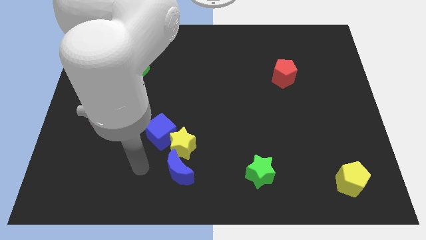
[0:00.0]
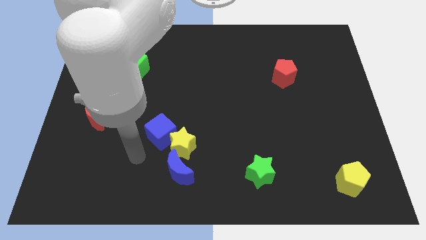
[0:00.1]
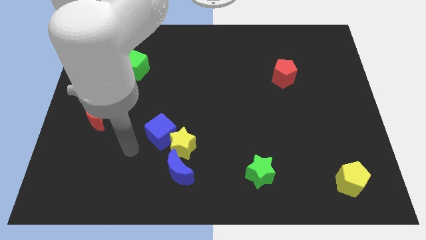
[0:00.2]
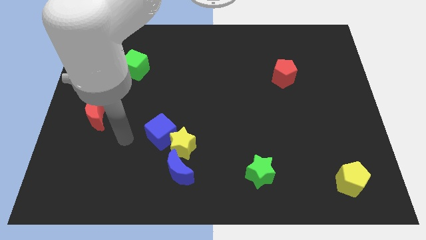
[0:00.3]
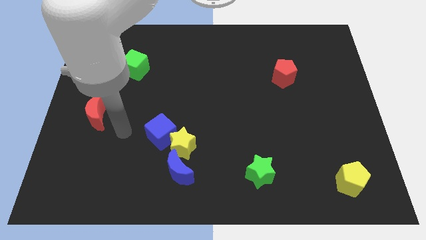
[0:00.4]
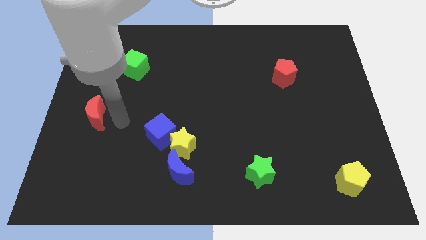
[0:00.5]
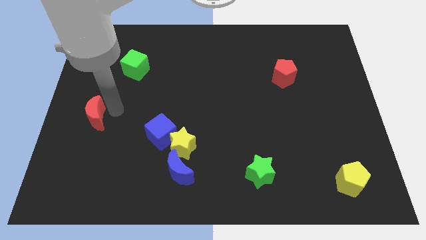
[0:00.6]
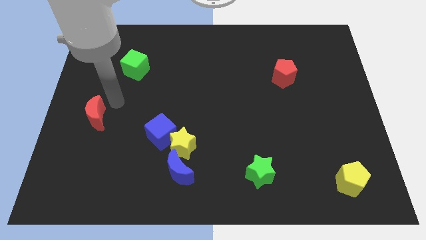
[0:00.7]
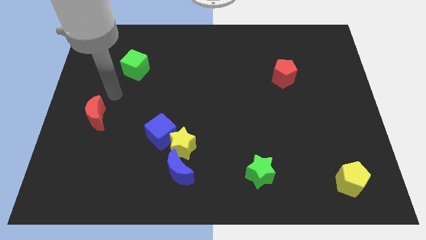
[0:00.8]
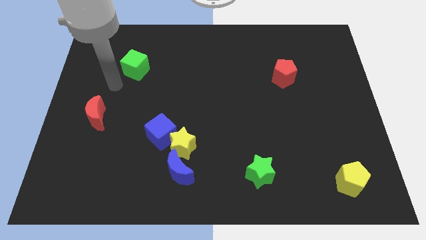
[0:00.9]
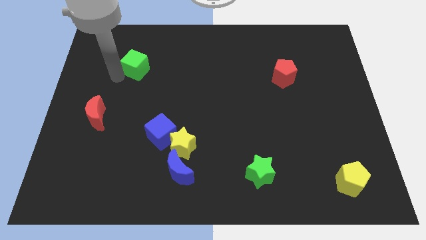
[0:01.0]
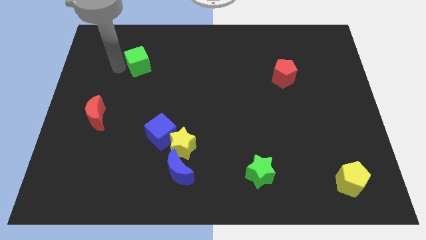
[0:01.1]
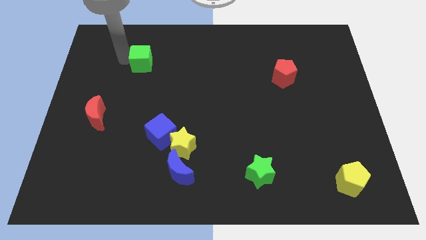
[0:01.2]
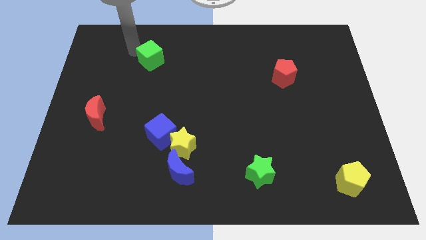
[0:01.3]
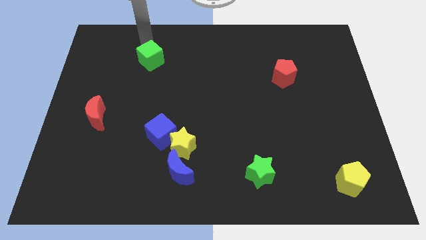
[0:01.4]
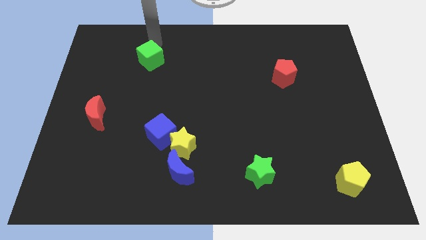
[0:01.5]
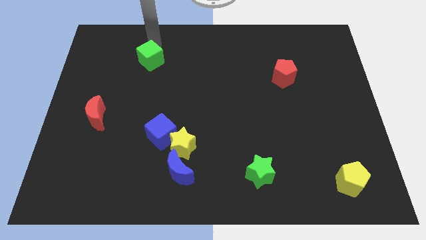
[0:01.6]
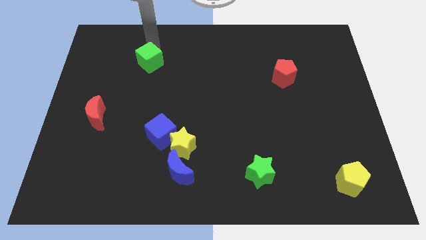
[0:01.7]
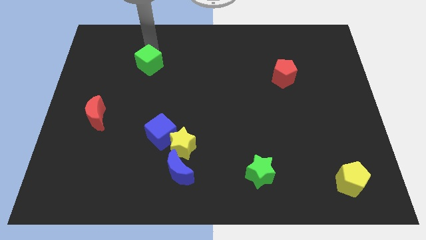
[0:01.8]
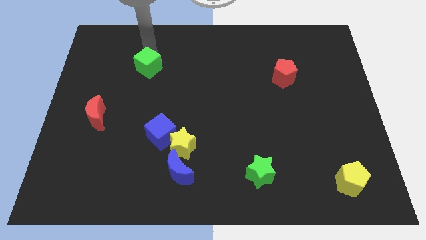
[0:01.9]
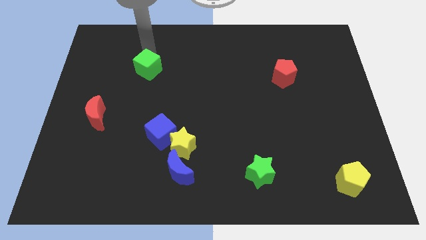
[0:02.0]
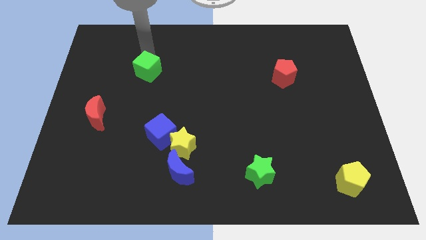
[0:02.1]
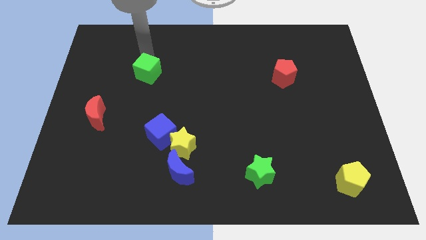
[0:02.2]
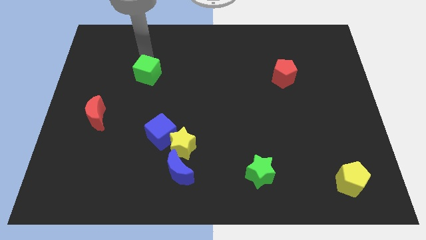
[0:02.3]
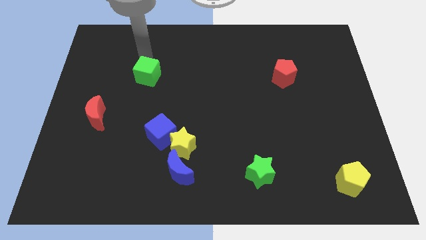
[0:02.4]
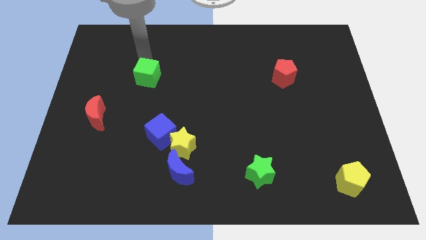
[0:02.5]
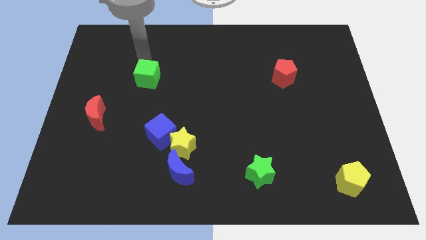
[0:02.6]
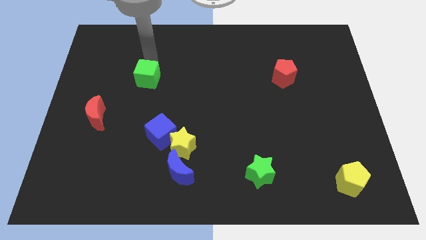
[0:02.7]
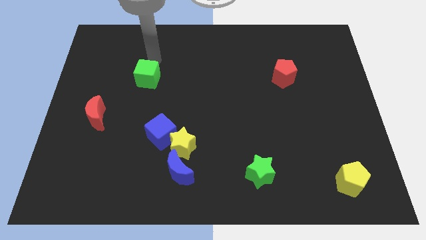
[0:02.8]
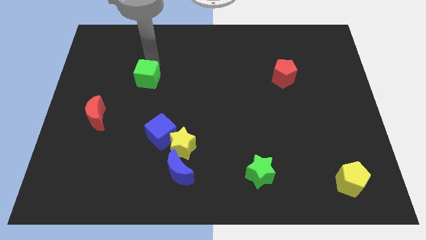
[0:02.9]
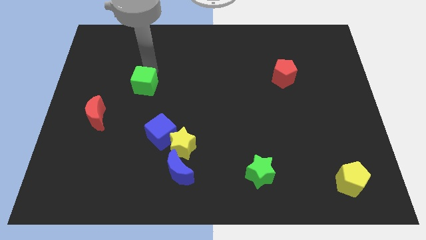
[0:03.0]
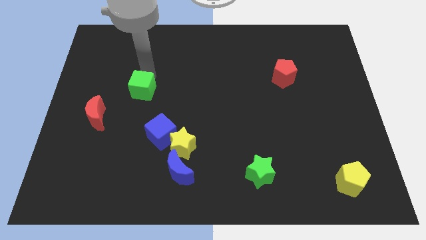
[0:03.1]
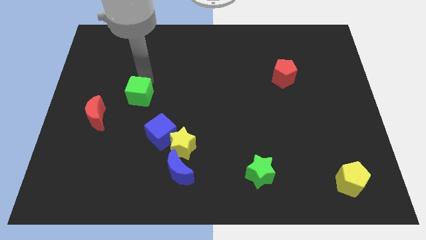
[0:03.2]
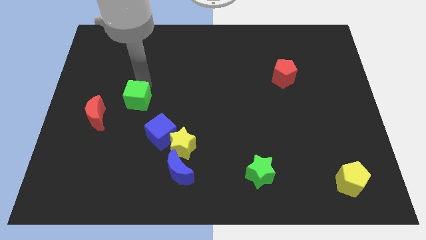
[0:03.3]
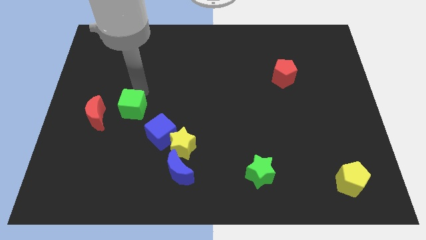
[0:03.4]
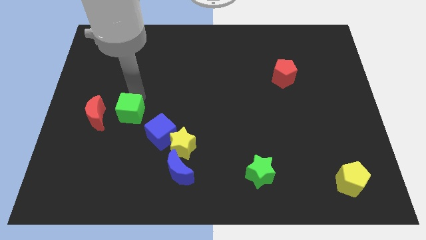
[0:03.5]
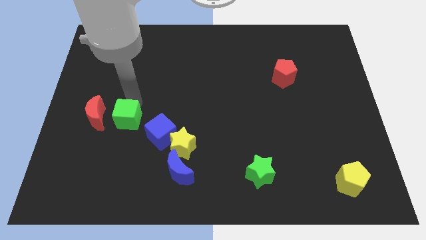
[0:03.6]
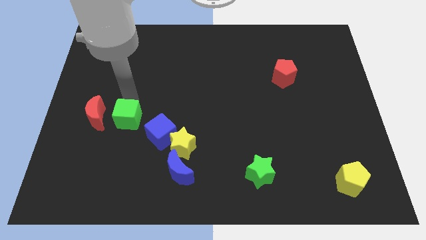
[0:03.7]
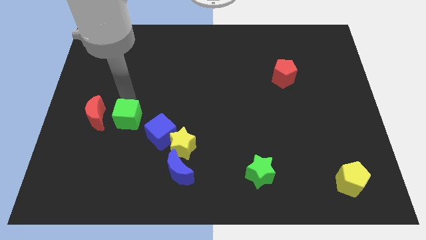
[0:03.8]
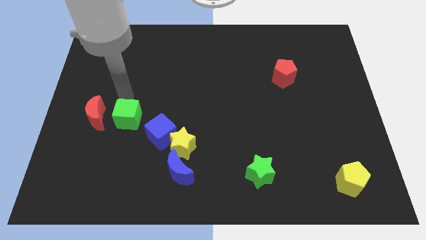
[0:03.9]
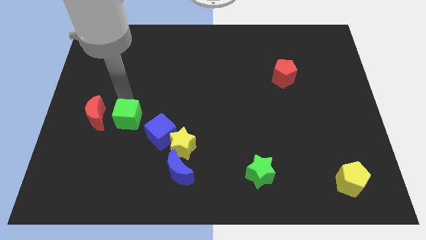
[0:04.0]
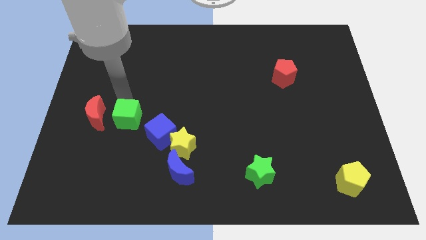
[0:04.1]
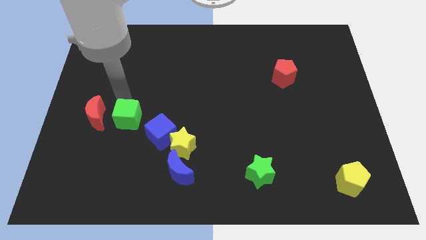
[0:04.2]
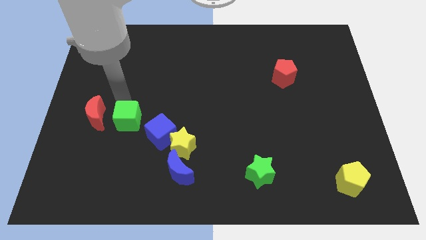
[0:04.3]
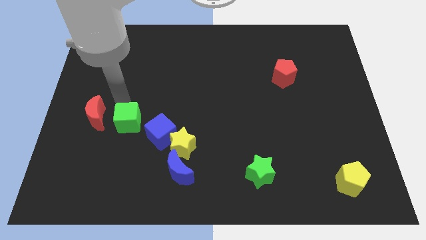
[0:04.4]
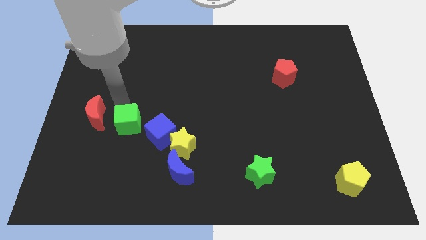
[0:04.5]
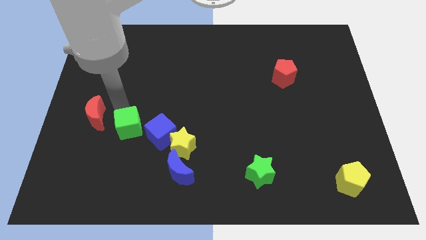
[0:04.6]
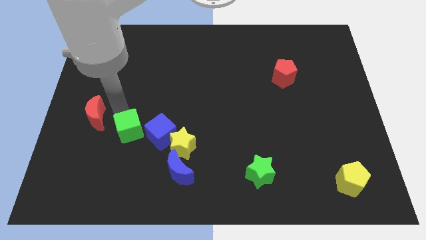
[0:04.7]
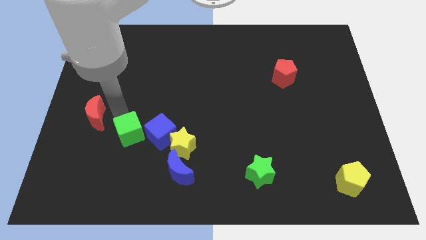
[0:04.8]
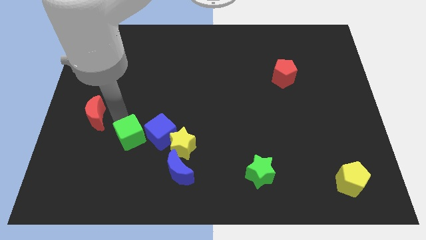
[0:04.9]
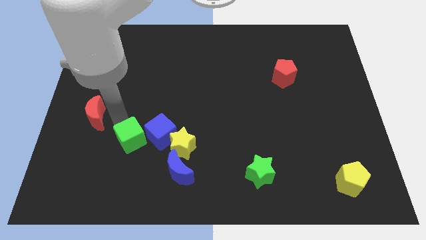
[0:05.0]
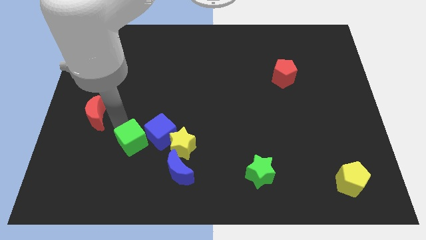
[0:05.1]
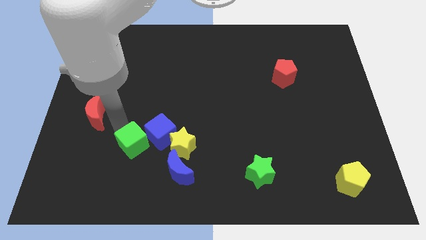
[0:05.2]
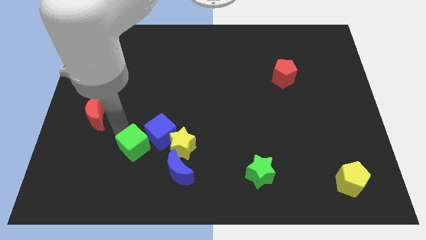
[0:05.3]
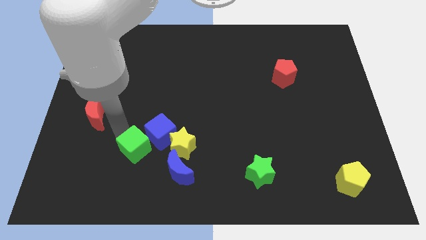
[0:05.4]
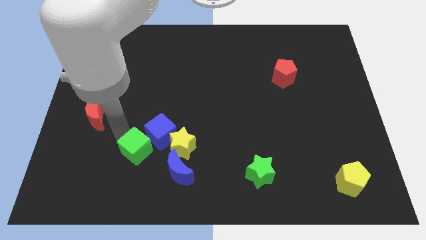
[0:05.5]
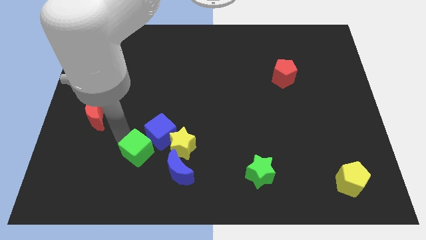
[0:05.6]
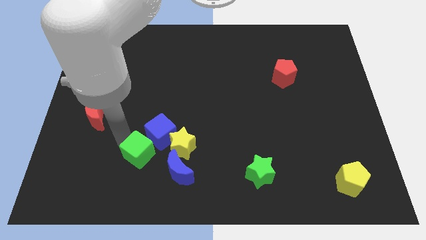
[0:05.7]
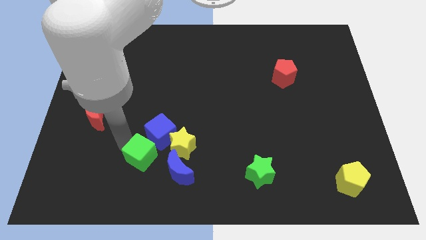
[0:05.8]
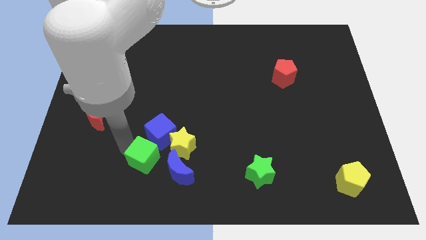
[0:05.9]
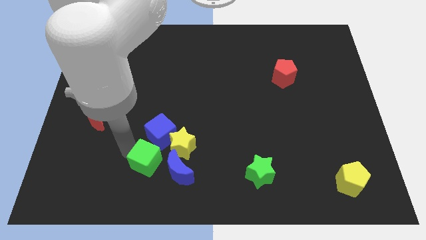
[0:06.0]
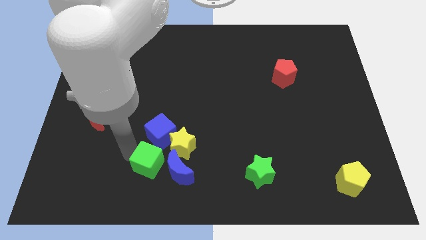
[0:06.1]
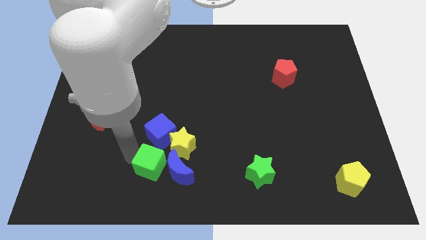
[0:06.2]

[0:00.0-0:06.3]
slide the green cube next to the blue moon
